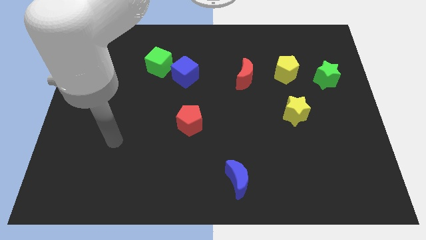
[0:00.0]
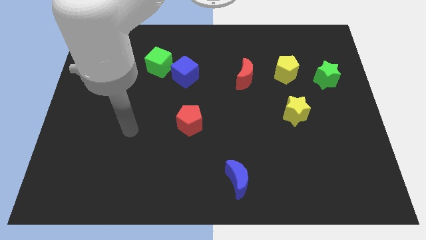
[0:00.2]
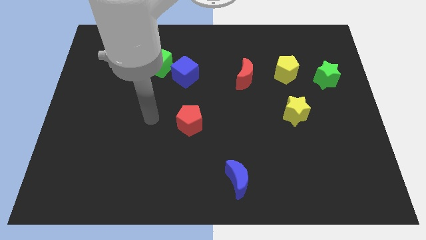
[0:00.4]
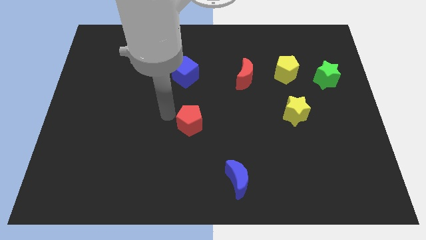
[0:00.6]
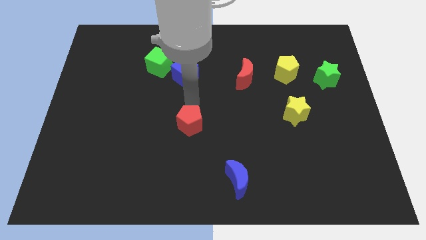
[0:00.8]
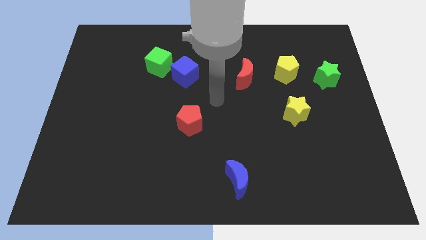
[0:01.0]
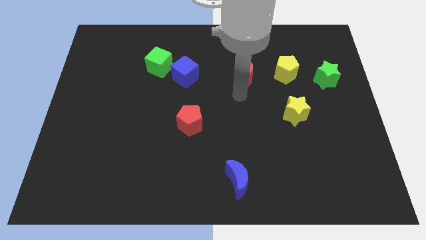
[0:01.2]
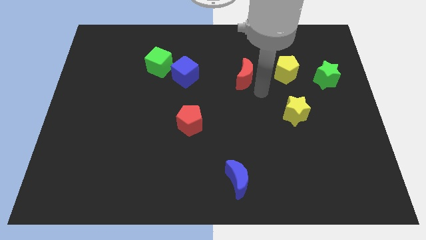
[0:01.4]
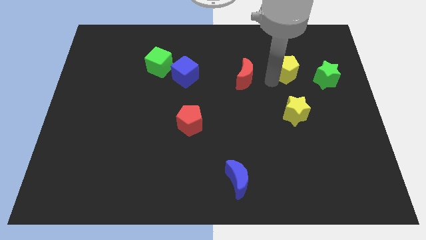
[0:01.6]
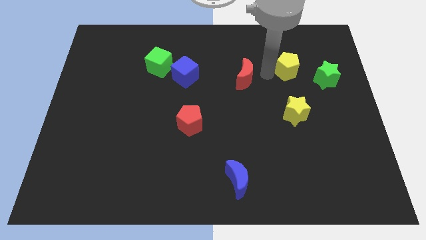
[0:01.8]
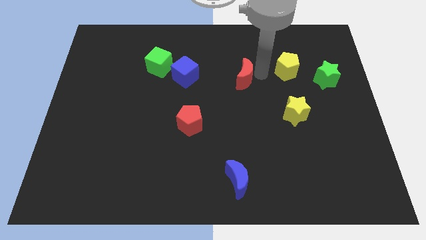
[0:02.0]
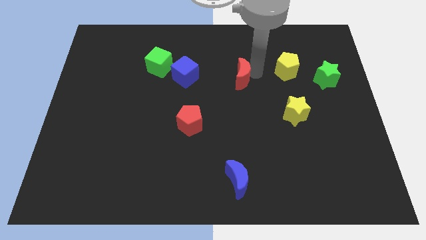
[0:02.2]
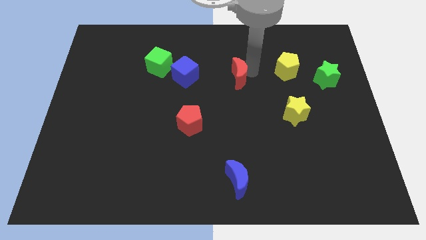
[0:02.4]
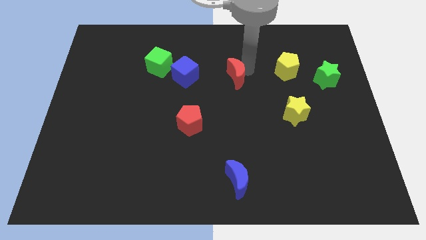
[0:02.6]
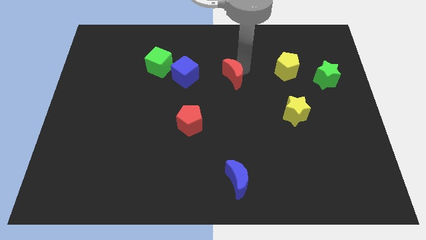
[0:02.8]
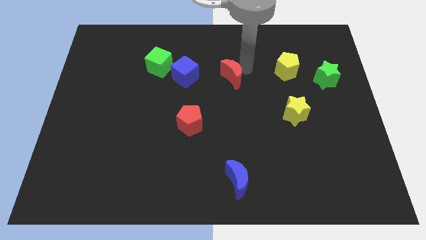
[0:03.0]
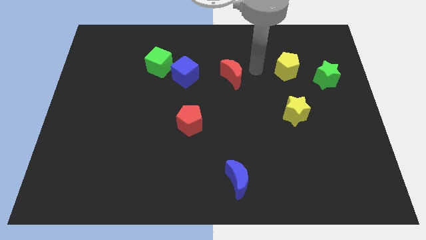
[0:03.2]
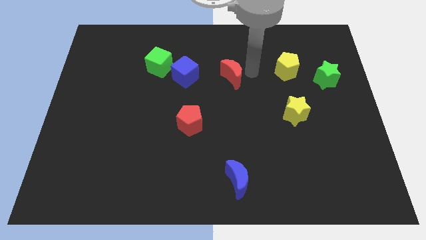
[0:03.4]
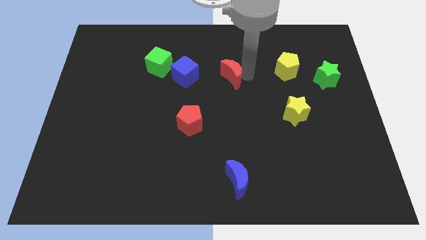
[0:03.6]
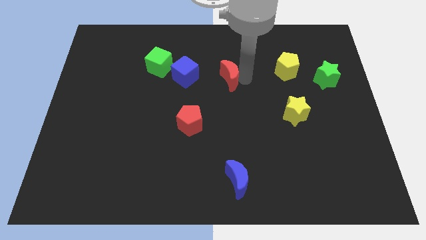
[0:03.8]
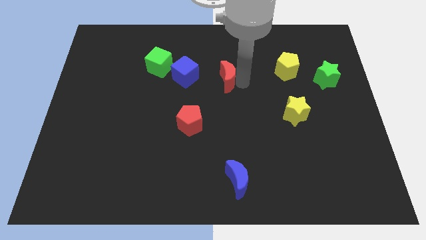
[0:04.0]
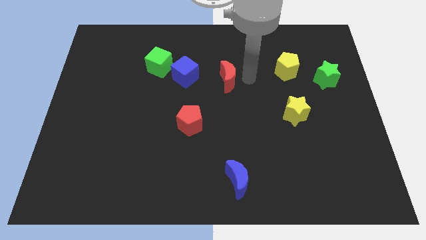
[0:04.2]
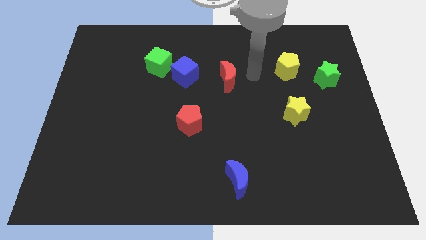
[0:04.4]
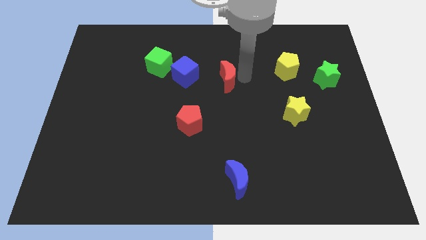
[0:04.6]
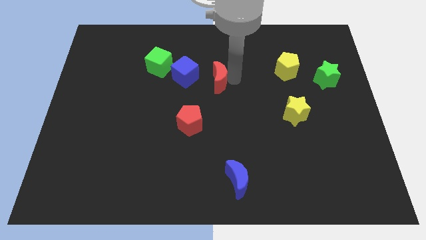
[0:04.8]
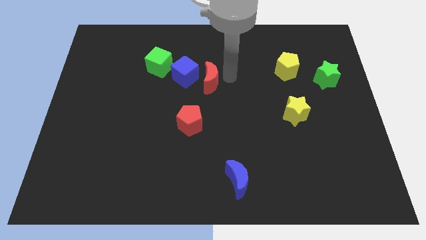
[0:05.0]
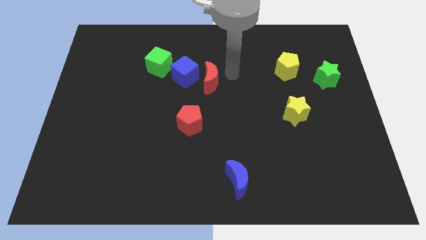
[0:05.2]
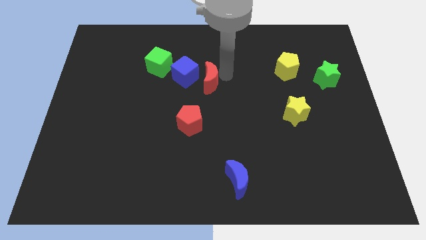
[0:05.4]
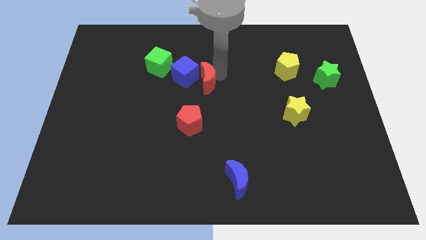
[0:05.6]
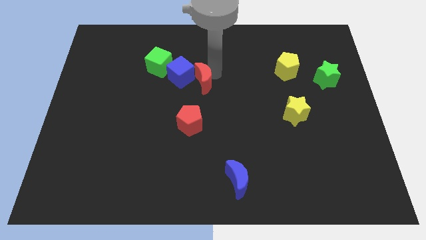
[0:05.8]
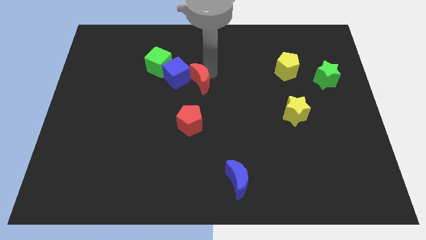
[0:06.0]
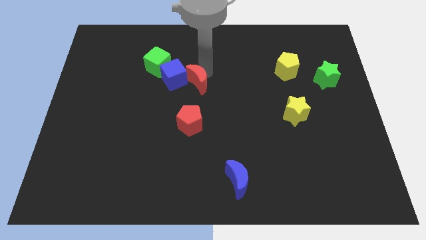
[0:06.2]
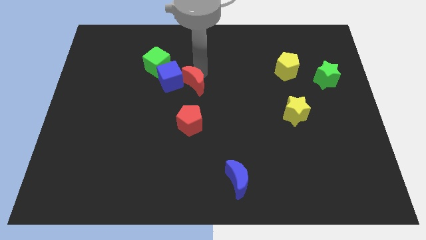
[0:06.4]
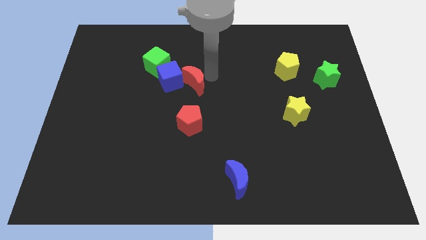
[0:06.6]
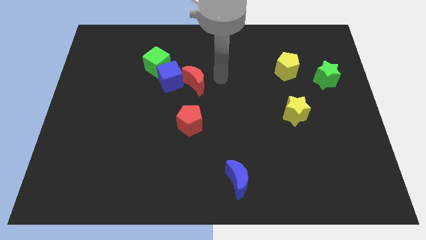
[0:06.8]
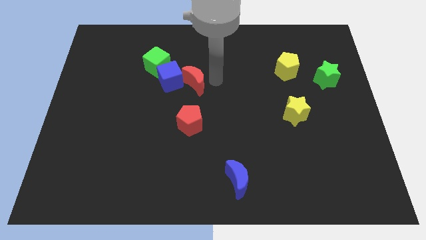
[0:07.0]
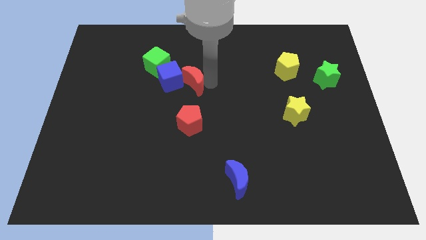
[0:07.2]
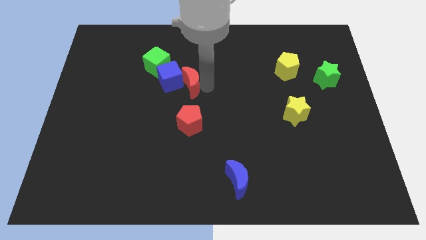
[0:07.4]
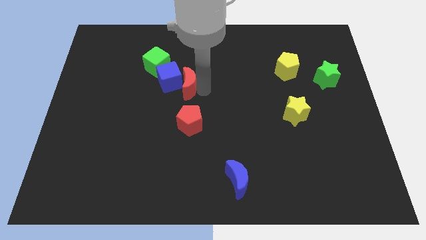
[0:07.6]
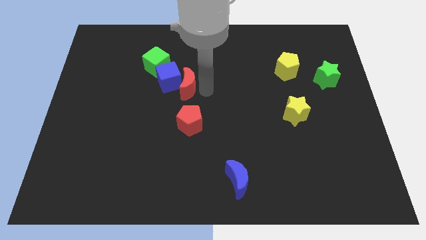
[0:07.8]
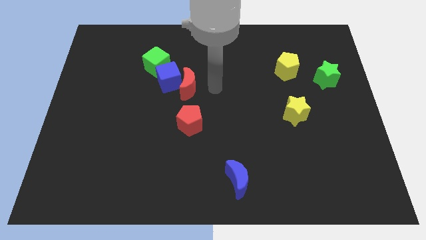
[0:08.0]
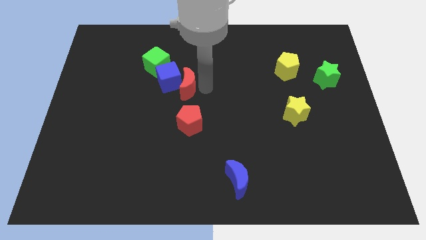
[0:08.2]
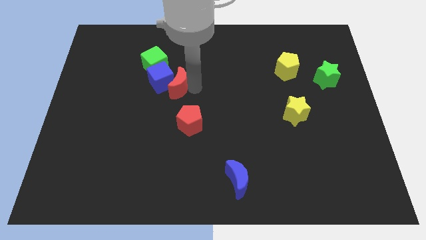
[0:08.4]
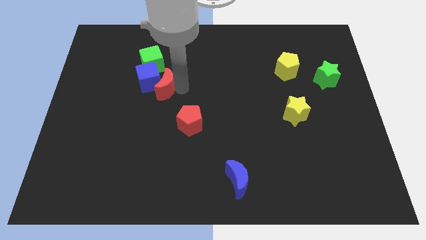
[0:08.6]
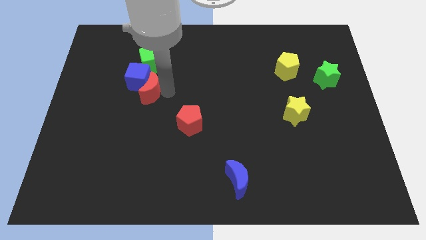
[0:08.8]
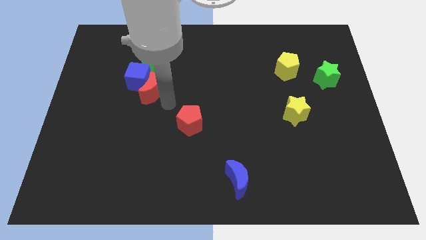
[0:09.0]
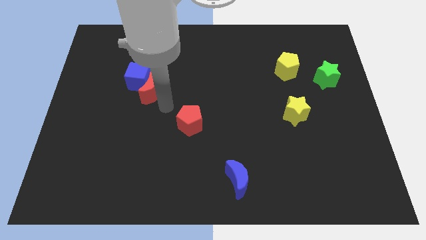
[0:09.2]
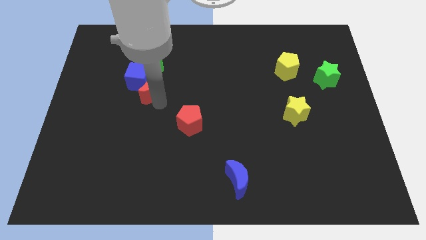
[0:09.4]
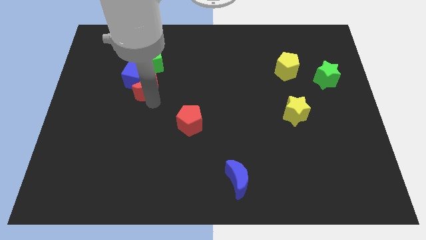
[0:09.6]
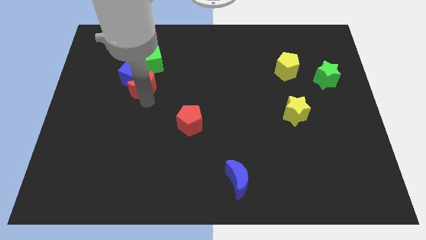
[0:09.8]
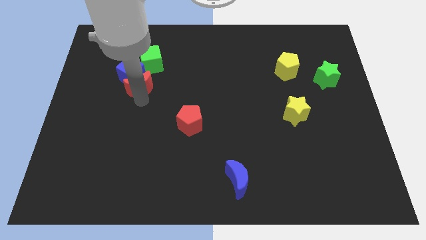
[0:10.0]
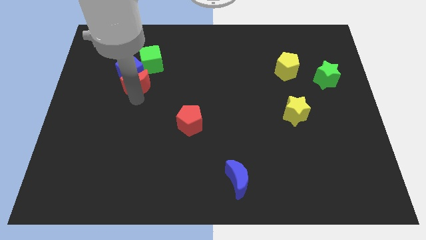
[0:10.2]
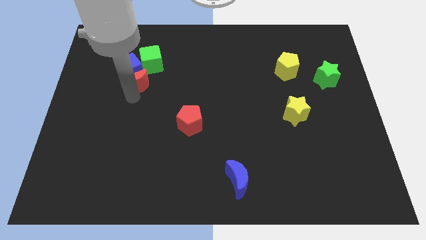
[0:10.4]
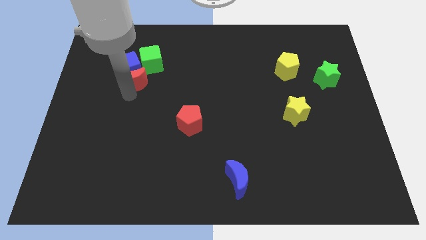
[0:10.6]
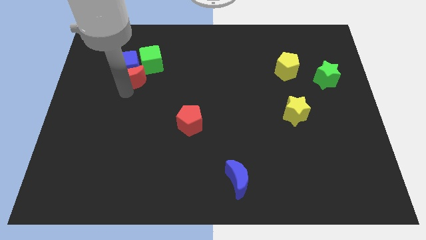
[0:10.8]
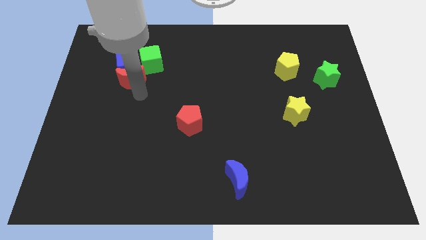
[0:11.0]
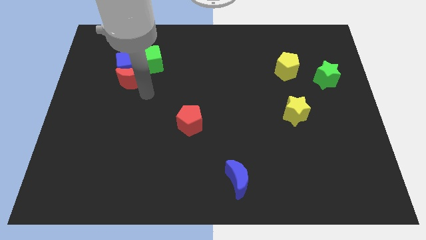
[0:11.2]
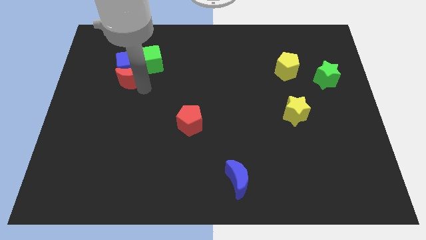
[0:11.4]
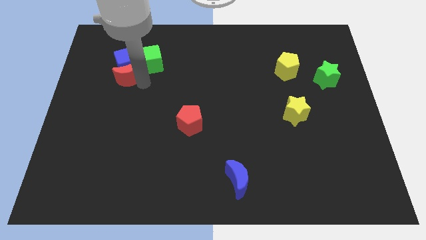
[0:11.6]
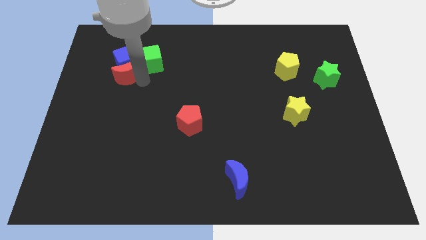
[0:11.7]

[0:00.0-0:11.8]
slide the red moon left of the green cube

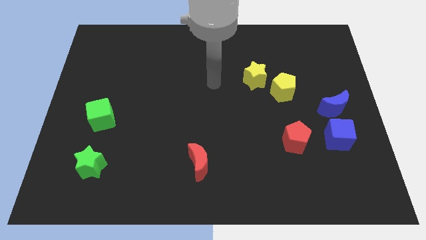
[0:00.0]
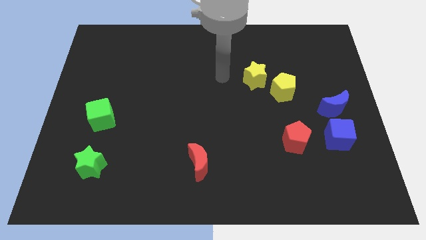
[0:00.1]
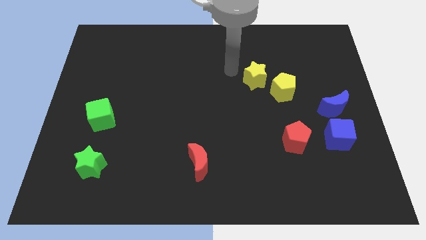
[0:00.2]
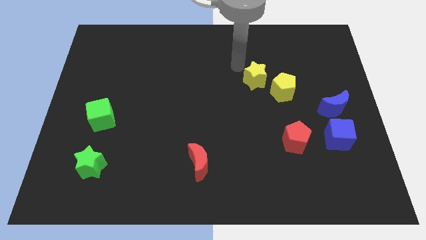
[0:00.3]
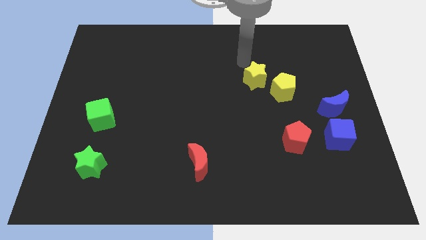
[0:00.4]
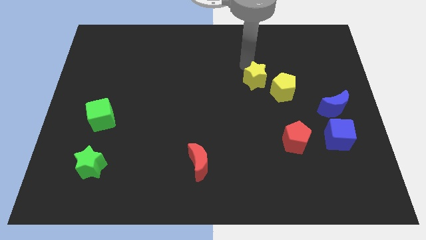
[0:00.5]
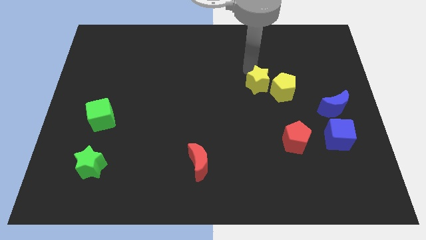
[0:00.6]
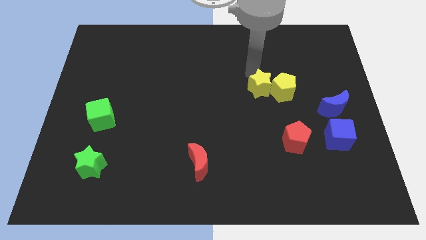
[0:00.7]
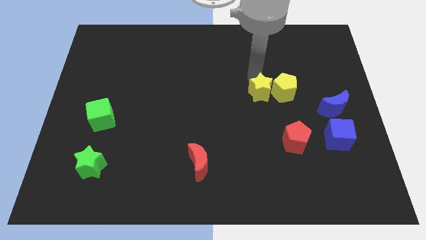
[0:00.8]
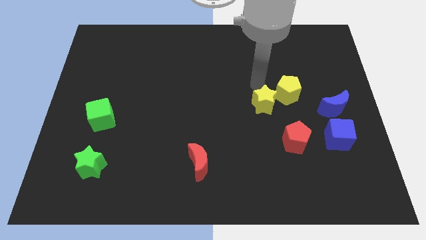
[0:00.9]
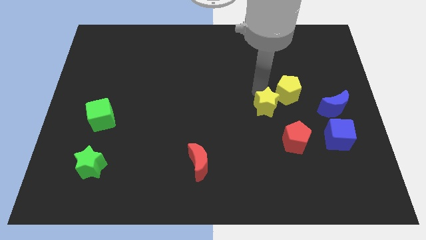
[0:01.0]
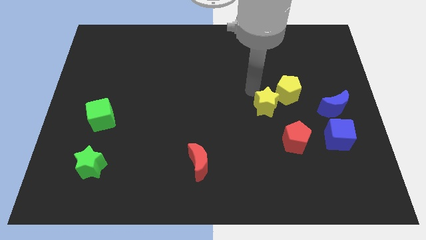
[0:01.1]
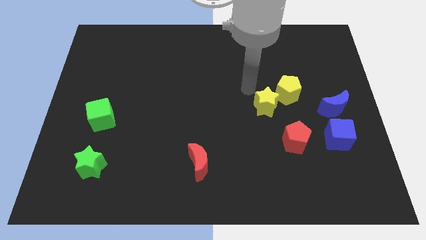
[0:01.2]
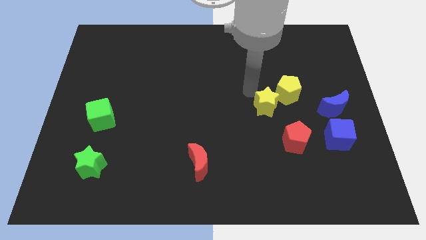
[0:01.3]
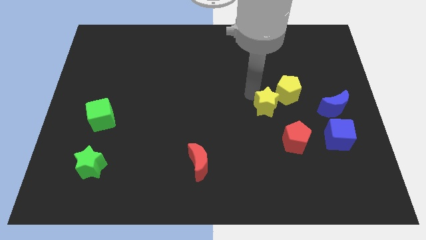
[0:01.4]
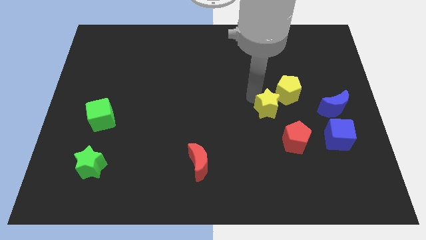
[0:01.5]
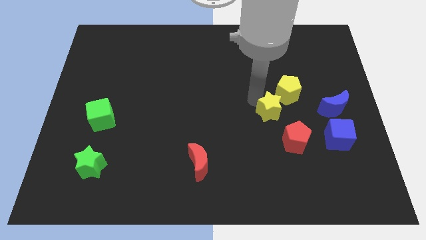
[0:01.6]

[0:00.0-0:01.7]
push the yellow star to the bottom of the yellow pentagon
